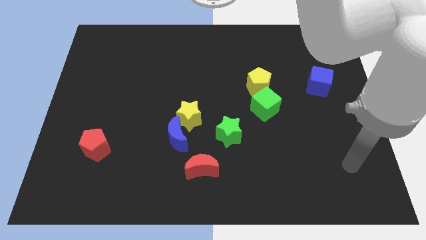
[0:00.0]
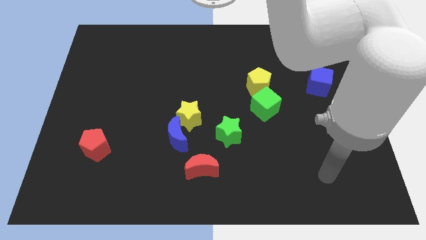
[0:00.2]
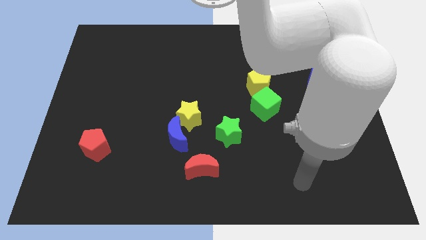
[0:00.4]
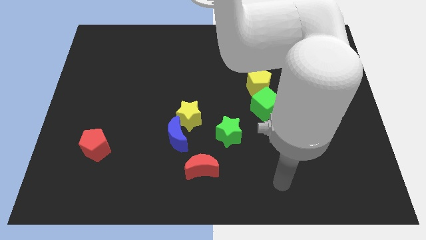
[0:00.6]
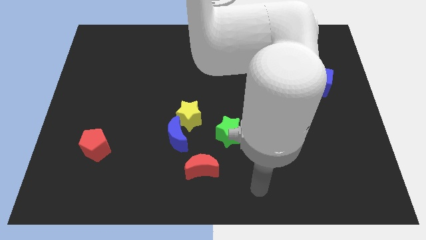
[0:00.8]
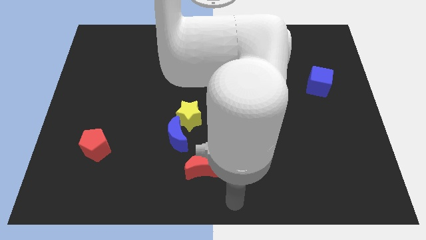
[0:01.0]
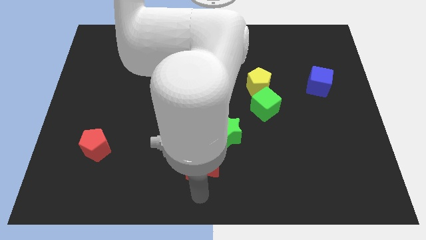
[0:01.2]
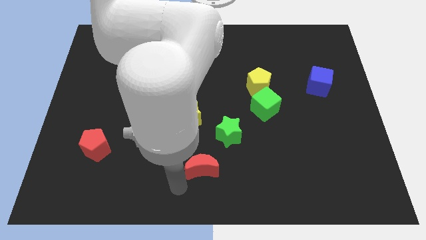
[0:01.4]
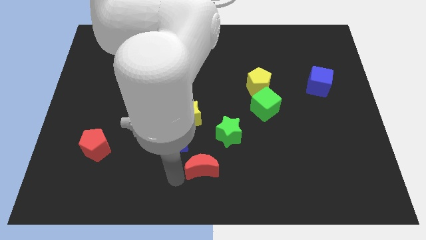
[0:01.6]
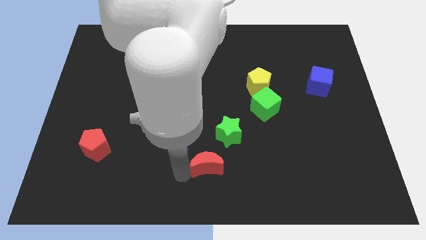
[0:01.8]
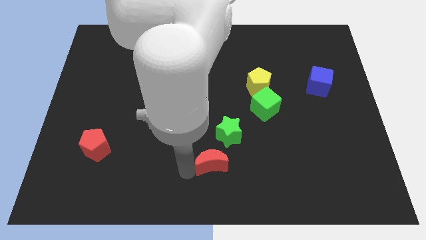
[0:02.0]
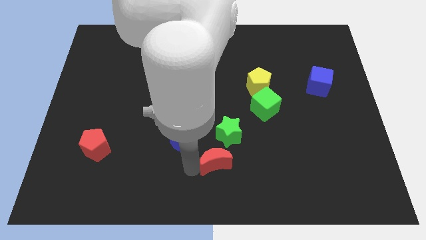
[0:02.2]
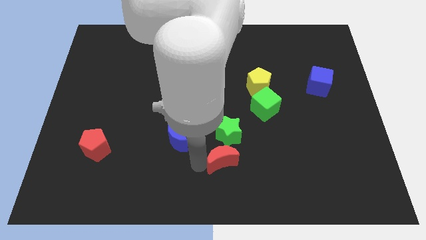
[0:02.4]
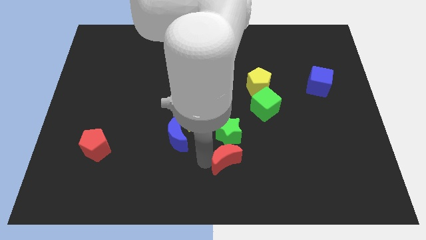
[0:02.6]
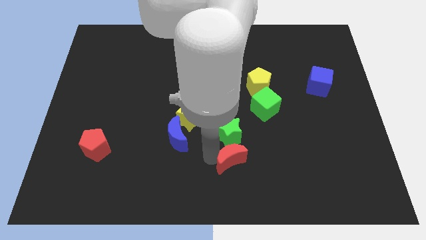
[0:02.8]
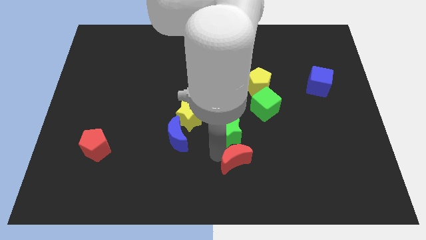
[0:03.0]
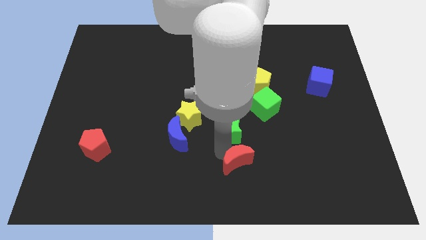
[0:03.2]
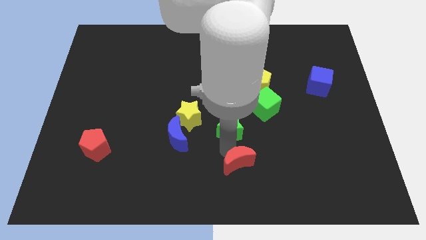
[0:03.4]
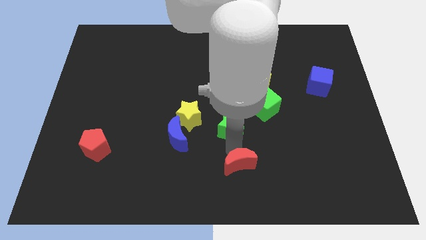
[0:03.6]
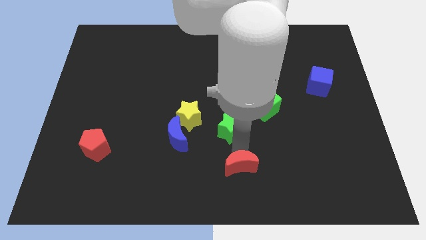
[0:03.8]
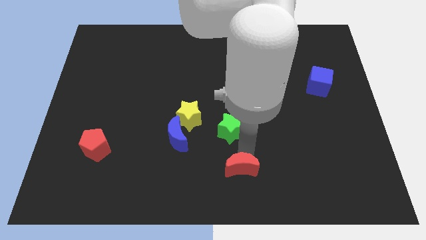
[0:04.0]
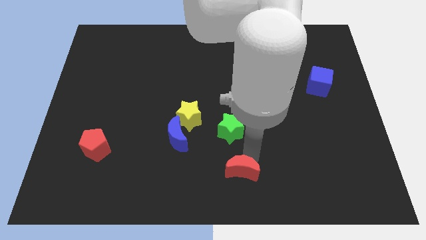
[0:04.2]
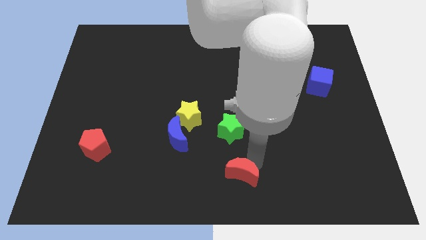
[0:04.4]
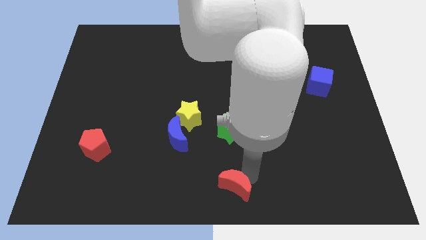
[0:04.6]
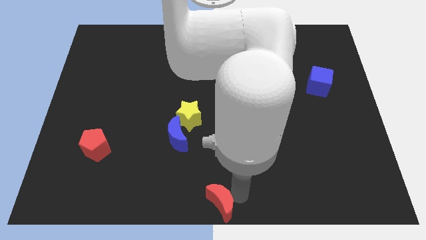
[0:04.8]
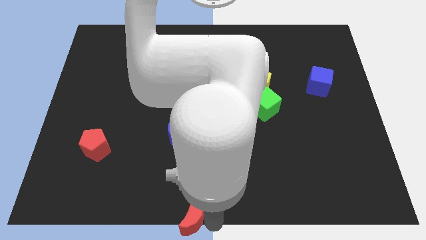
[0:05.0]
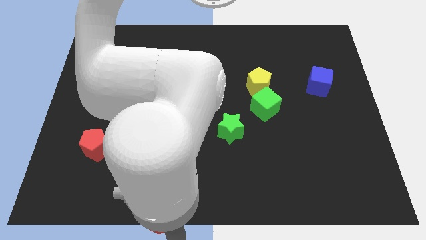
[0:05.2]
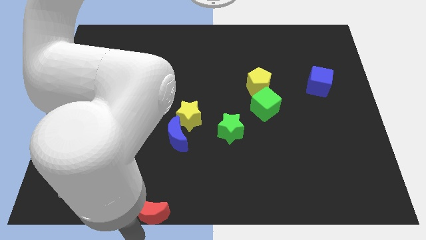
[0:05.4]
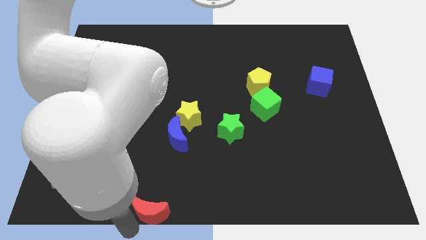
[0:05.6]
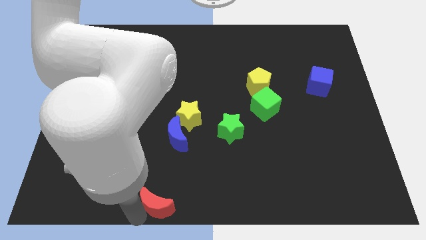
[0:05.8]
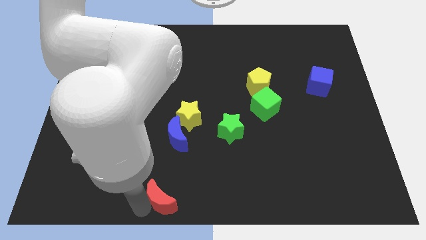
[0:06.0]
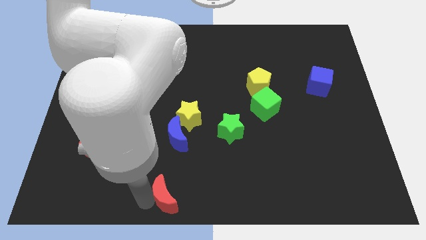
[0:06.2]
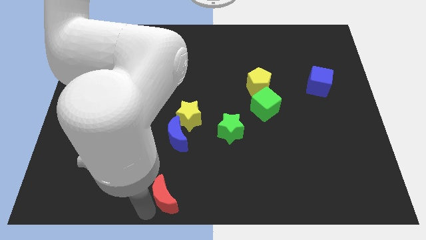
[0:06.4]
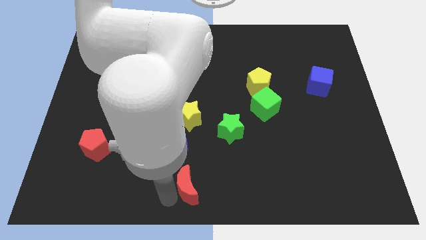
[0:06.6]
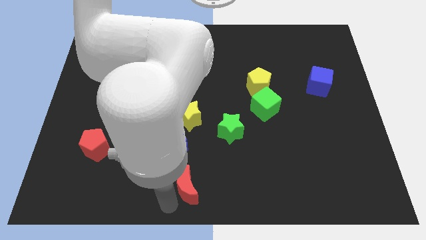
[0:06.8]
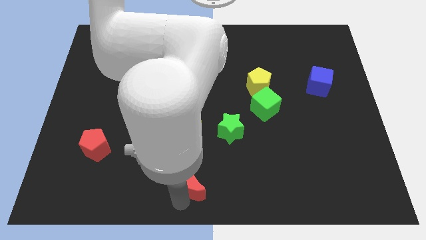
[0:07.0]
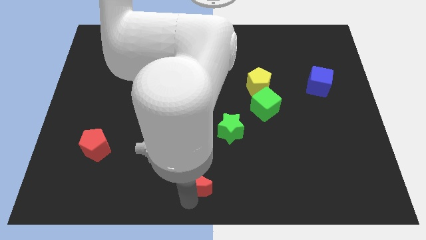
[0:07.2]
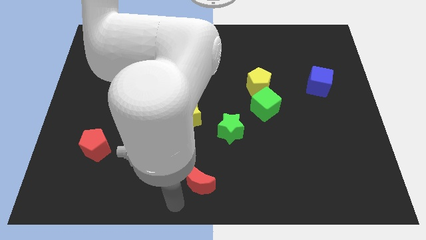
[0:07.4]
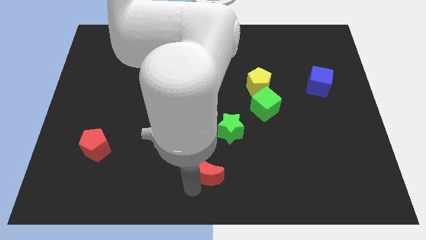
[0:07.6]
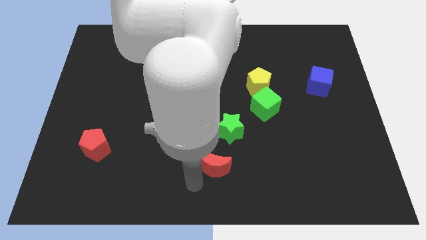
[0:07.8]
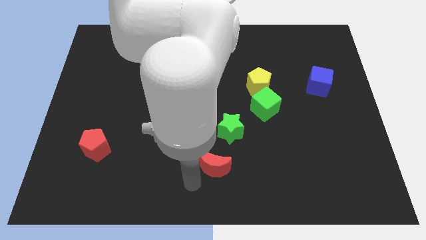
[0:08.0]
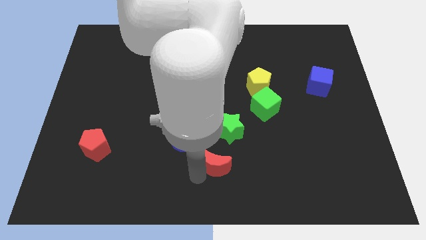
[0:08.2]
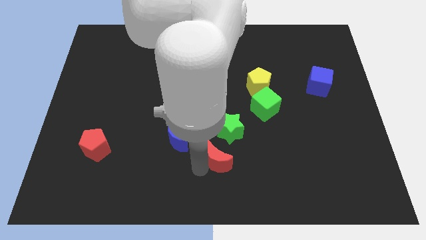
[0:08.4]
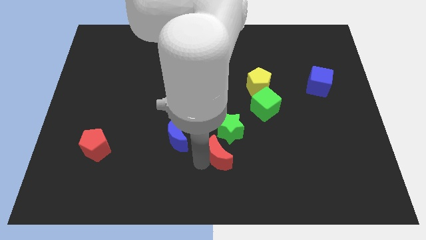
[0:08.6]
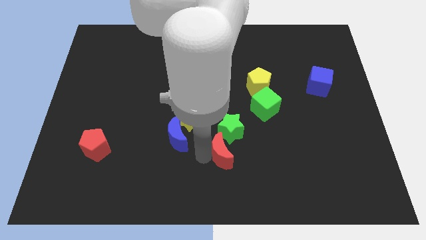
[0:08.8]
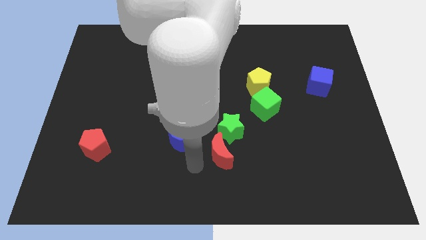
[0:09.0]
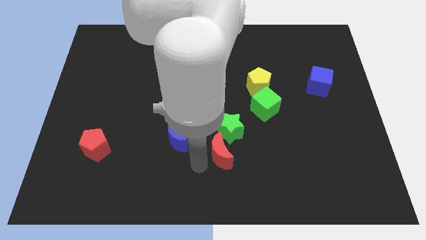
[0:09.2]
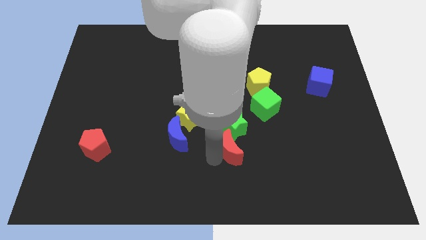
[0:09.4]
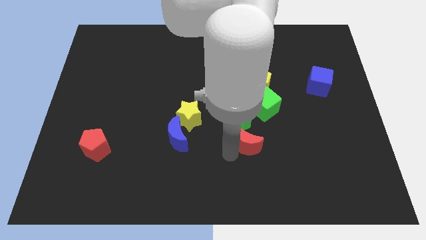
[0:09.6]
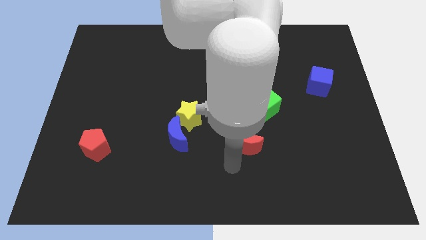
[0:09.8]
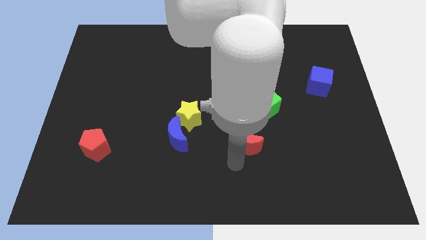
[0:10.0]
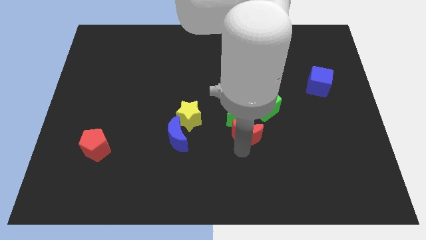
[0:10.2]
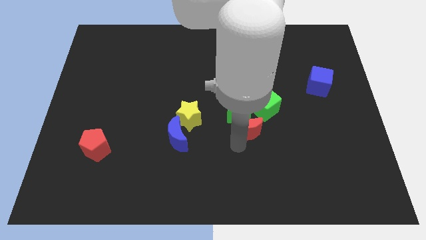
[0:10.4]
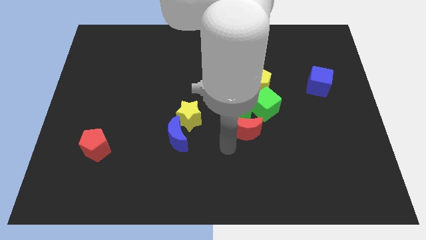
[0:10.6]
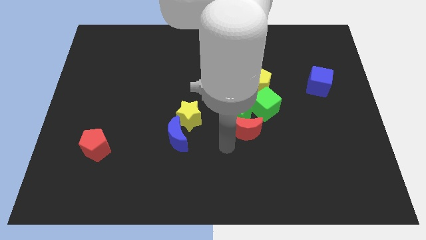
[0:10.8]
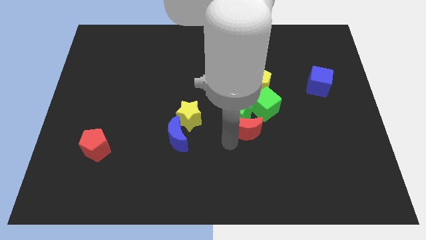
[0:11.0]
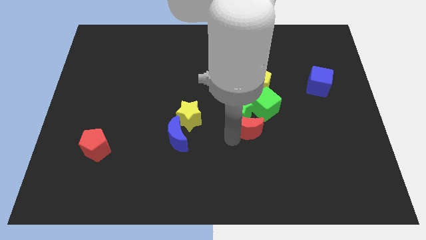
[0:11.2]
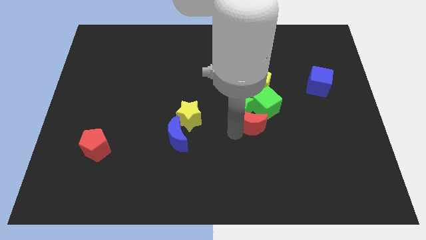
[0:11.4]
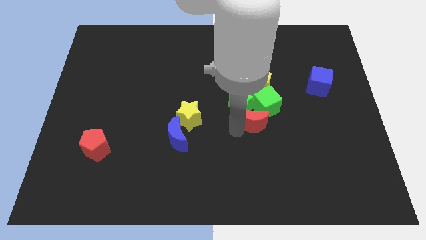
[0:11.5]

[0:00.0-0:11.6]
push the red moon next to the green cube

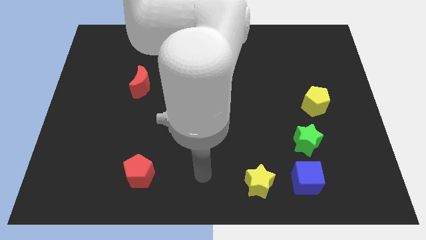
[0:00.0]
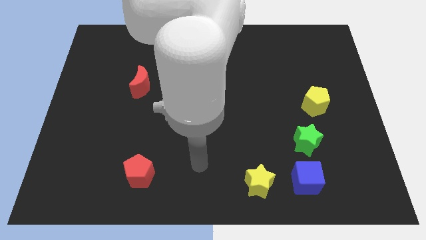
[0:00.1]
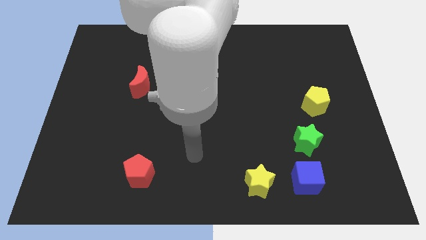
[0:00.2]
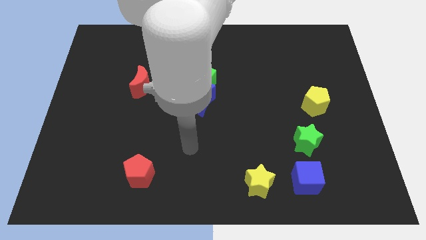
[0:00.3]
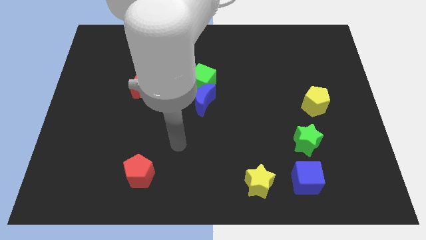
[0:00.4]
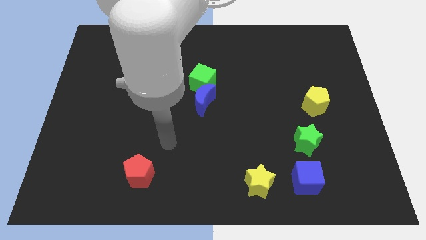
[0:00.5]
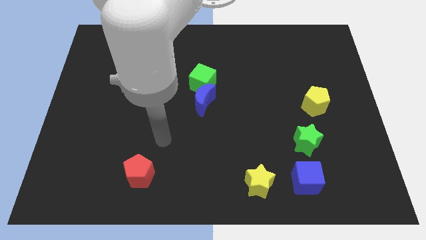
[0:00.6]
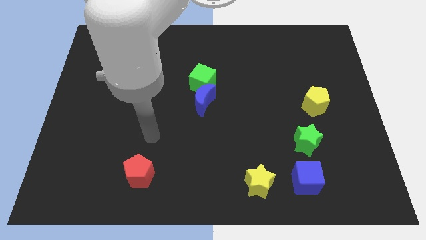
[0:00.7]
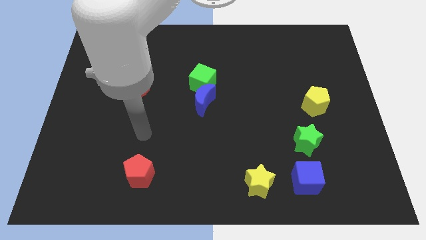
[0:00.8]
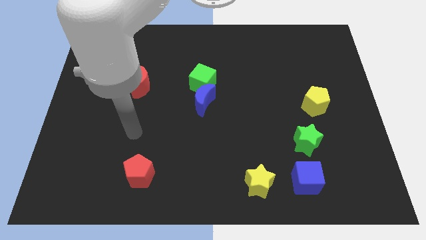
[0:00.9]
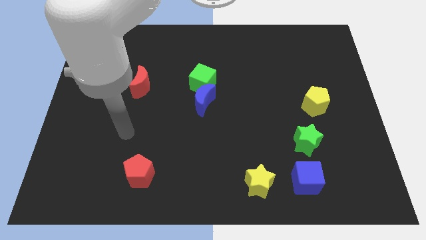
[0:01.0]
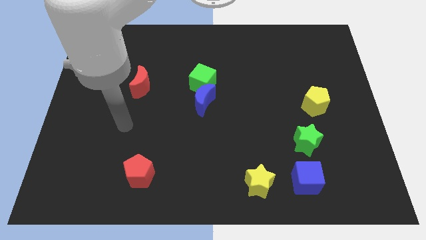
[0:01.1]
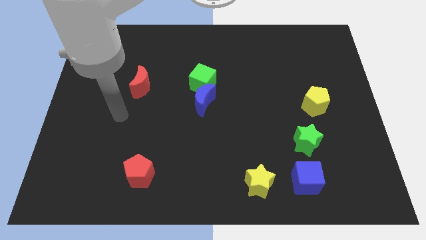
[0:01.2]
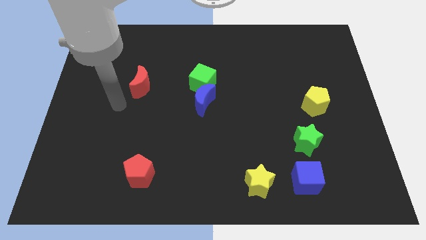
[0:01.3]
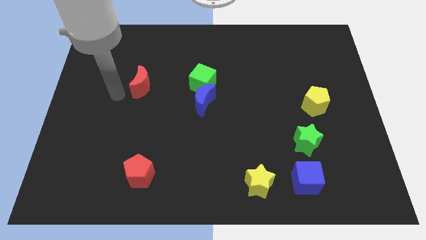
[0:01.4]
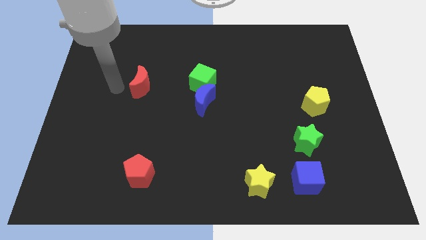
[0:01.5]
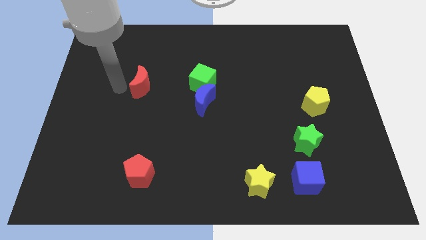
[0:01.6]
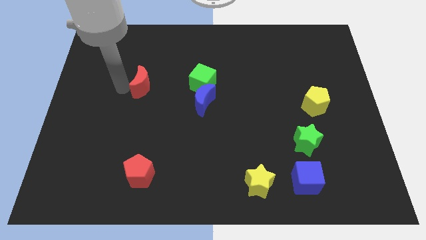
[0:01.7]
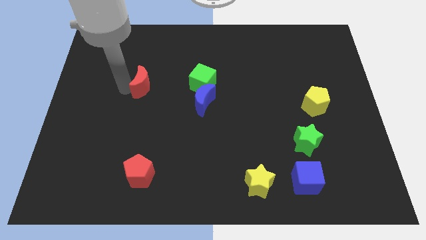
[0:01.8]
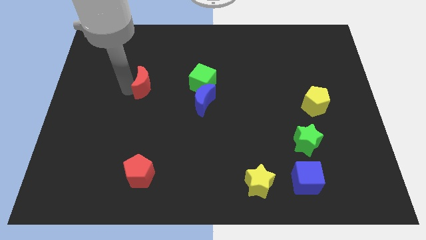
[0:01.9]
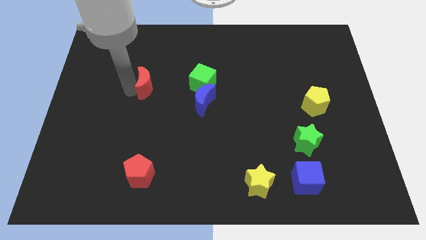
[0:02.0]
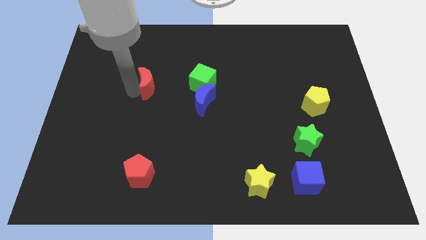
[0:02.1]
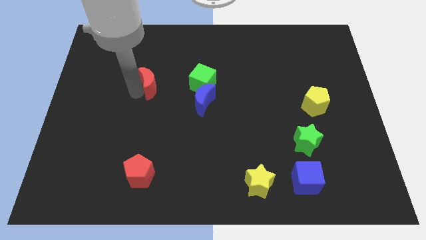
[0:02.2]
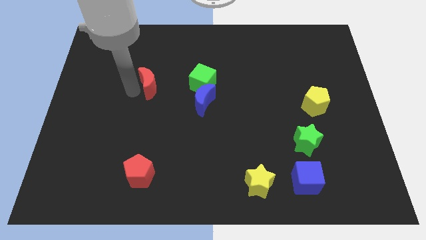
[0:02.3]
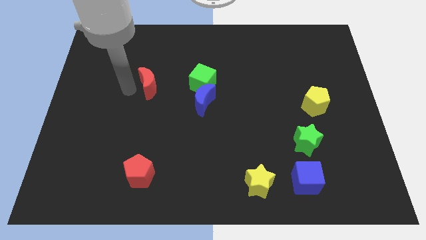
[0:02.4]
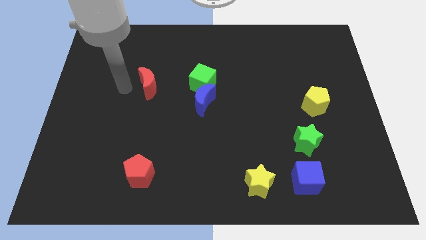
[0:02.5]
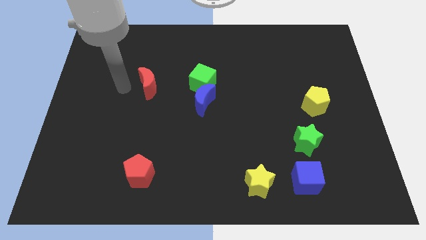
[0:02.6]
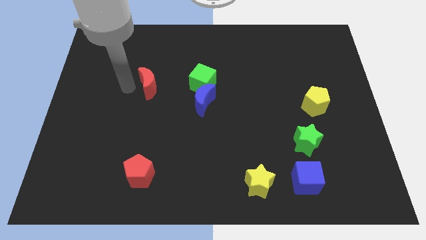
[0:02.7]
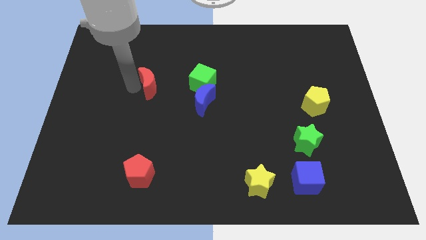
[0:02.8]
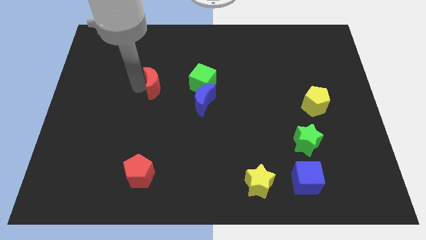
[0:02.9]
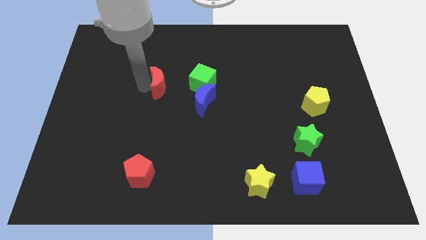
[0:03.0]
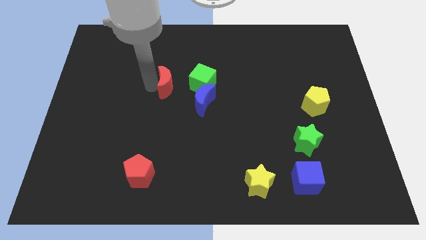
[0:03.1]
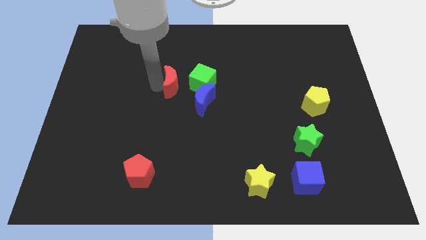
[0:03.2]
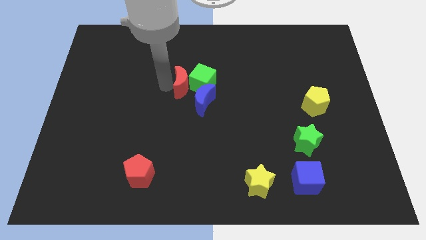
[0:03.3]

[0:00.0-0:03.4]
push the red moon to the green cube
